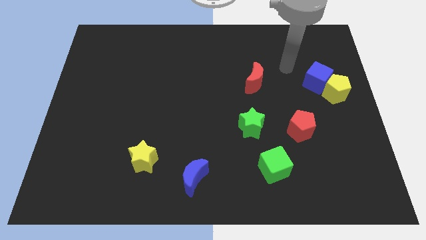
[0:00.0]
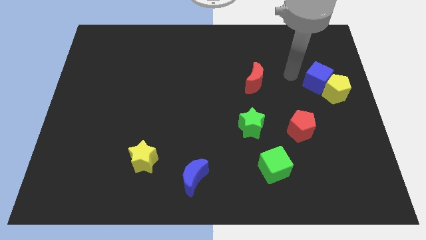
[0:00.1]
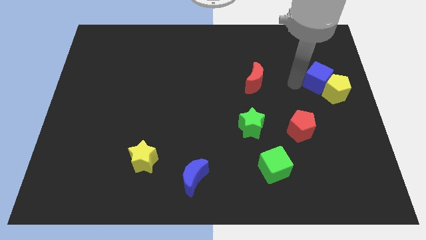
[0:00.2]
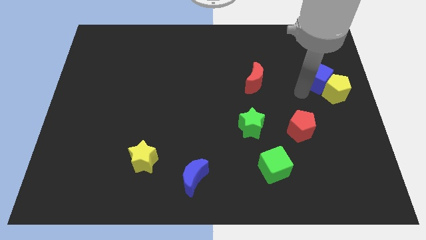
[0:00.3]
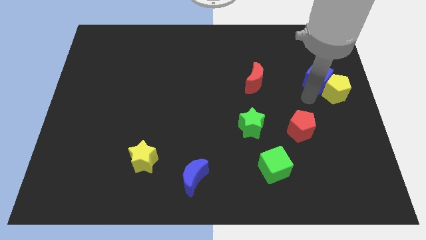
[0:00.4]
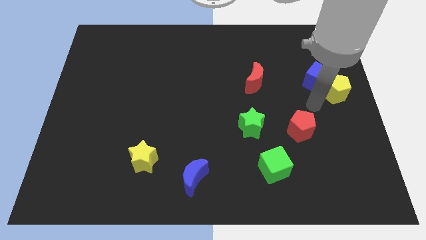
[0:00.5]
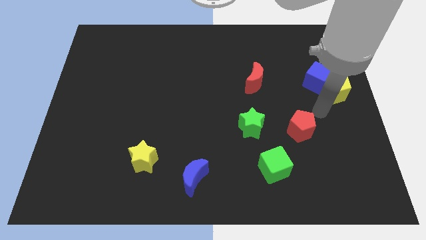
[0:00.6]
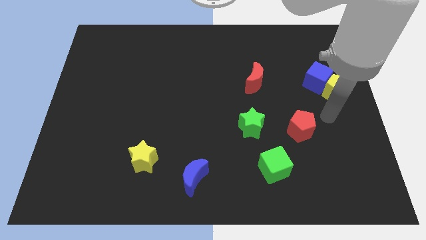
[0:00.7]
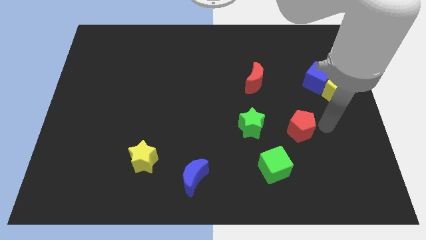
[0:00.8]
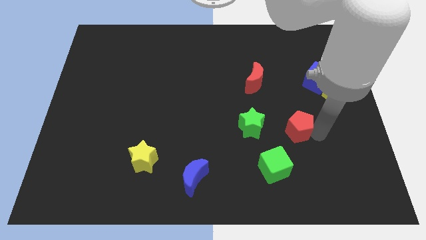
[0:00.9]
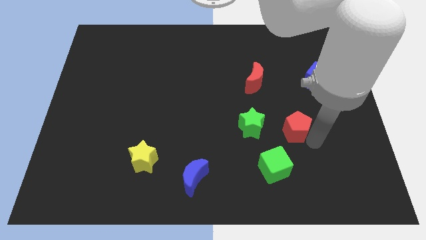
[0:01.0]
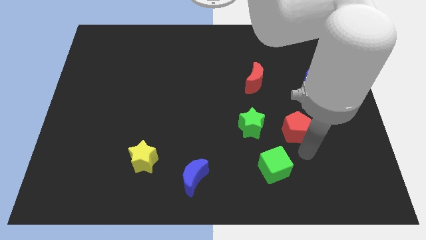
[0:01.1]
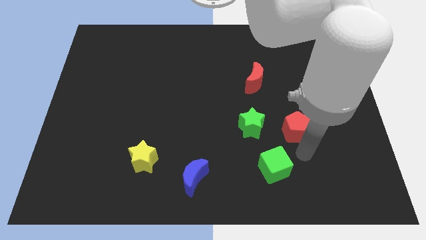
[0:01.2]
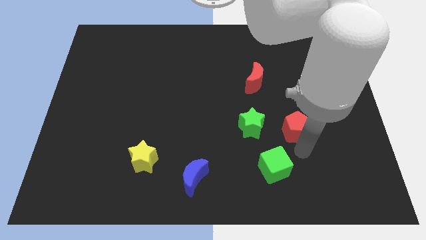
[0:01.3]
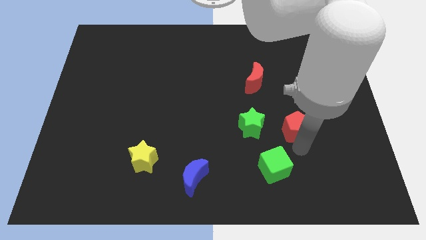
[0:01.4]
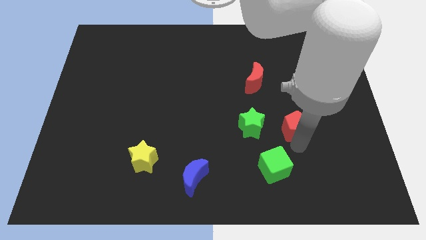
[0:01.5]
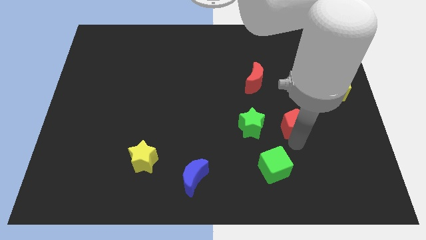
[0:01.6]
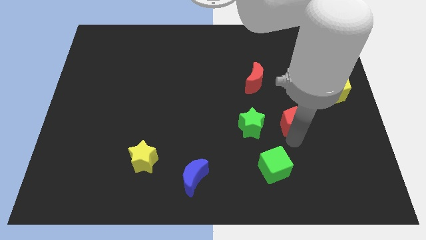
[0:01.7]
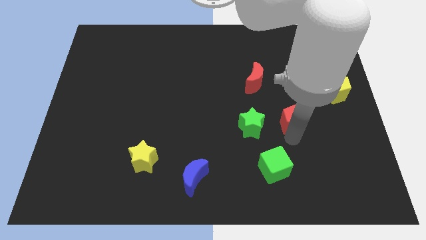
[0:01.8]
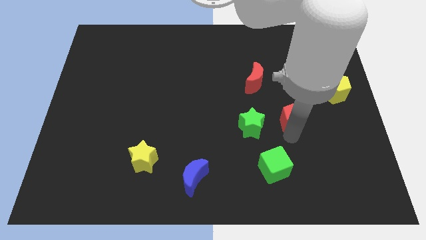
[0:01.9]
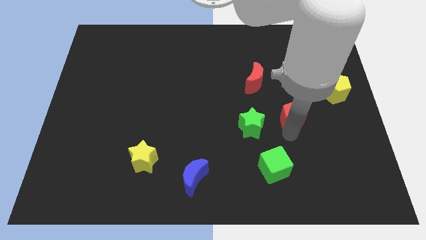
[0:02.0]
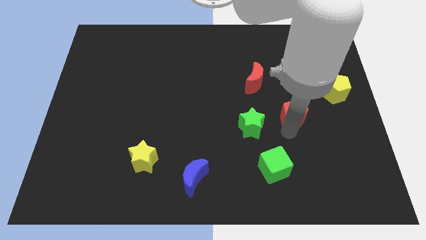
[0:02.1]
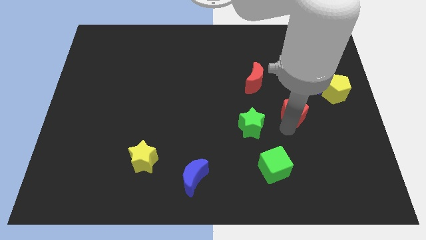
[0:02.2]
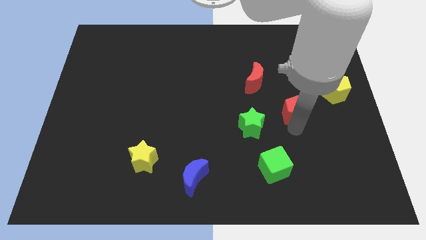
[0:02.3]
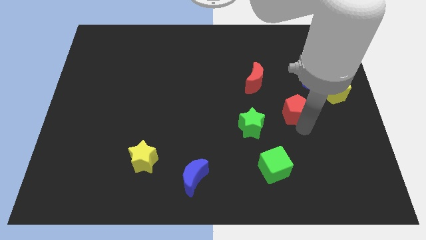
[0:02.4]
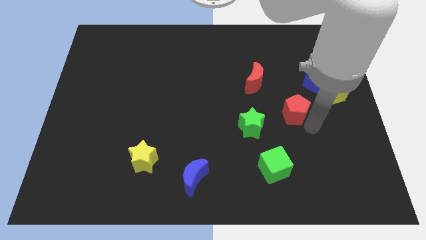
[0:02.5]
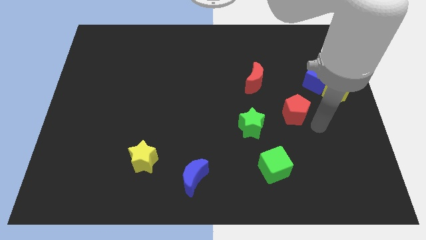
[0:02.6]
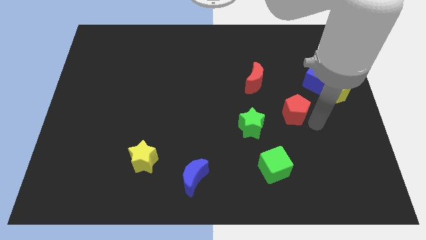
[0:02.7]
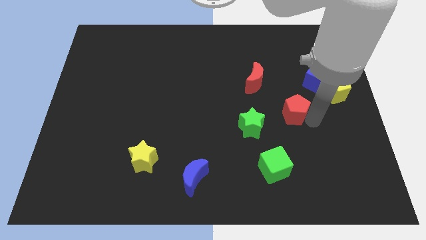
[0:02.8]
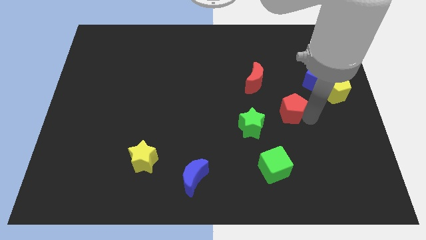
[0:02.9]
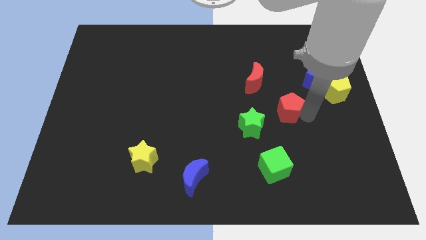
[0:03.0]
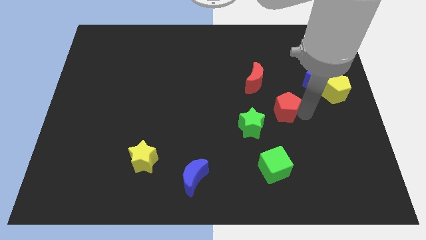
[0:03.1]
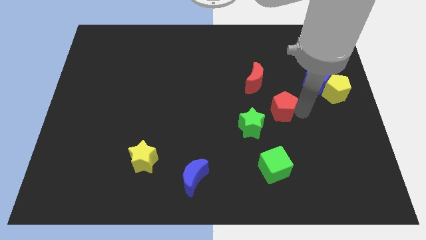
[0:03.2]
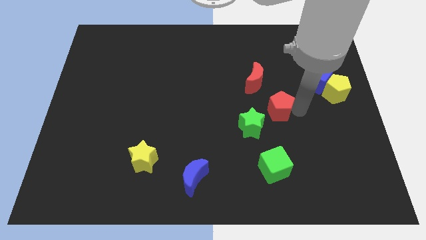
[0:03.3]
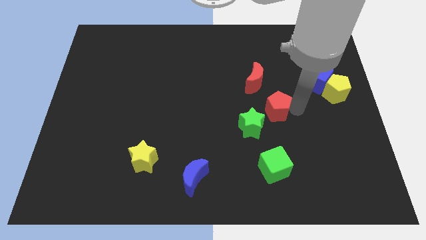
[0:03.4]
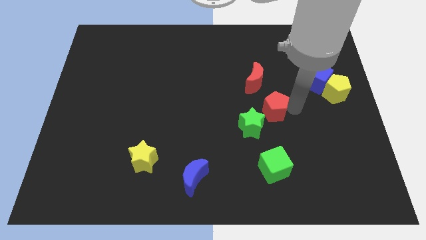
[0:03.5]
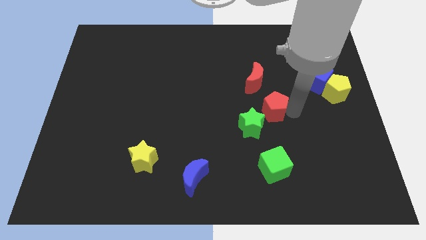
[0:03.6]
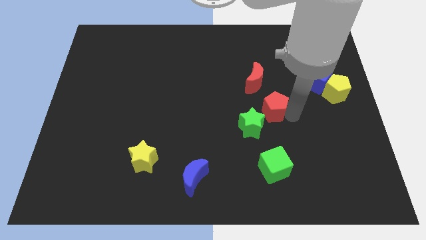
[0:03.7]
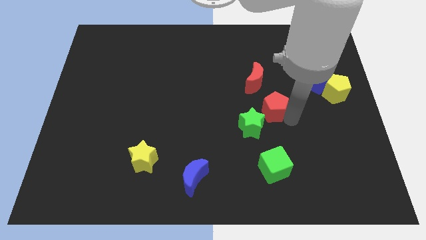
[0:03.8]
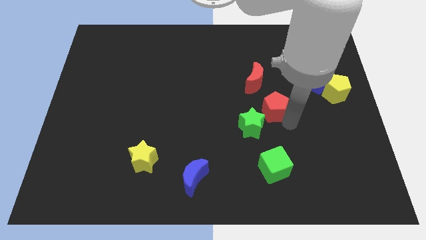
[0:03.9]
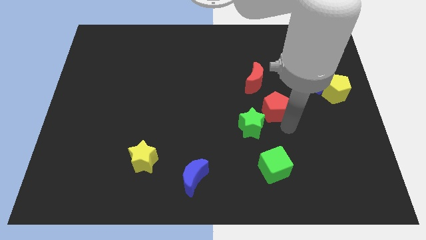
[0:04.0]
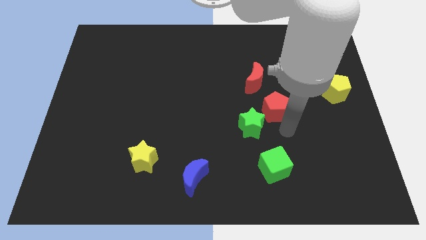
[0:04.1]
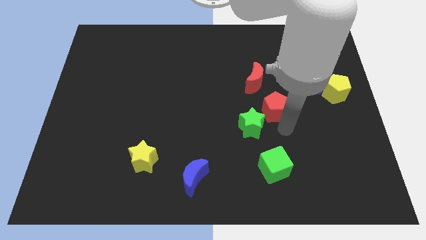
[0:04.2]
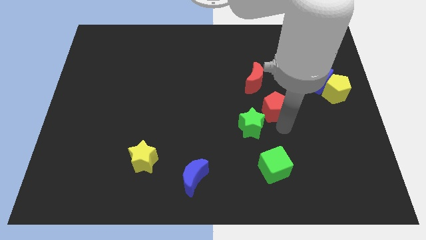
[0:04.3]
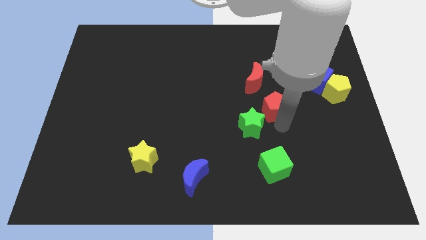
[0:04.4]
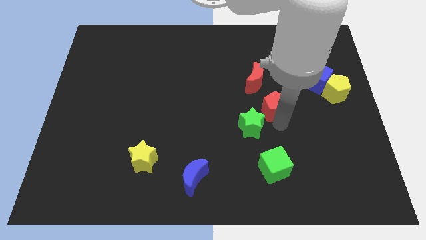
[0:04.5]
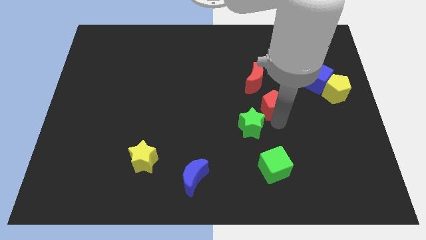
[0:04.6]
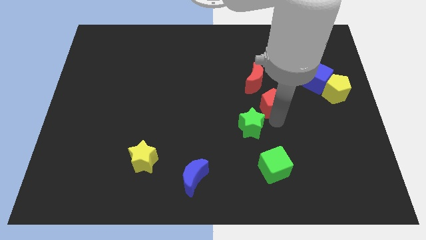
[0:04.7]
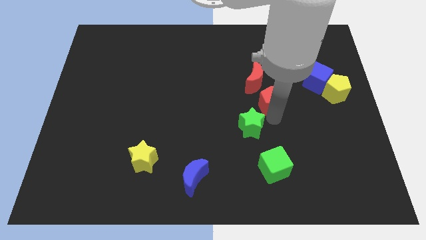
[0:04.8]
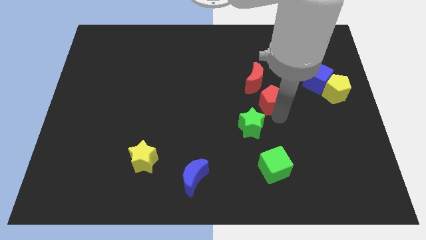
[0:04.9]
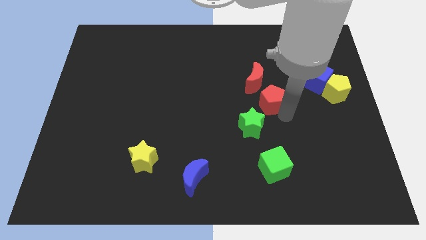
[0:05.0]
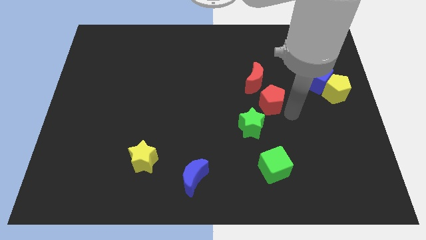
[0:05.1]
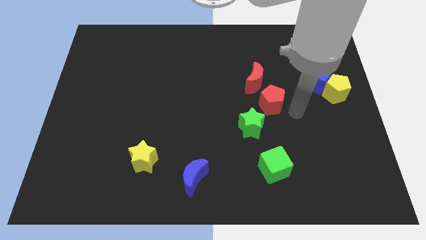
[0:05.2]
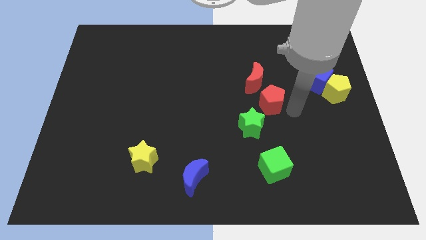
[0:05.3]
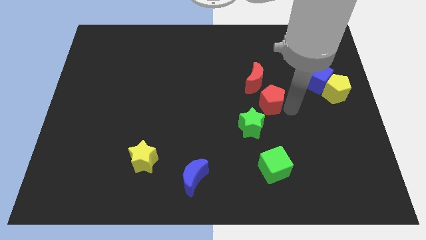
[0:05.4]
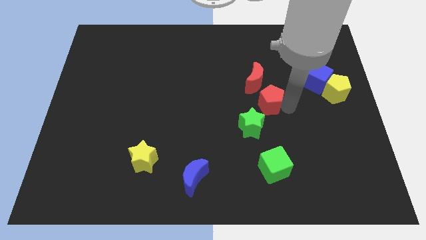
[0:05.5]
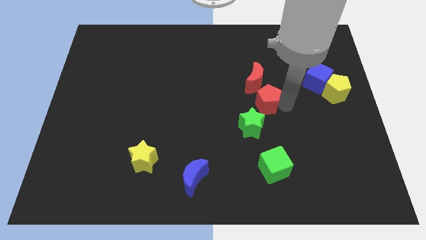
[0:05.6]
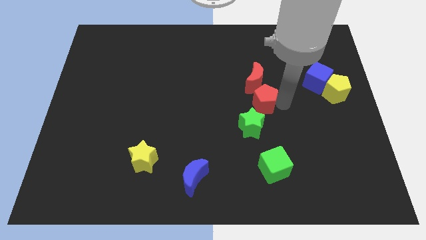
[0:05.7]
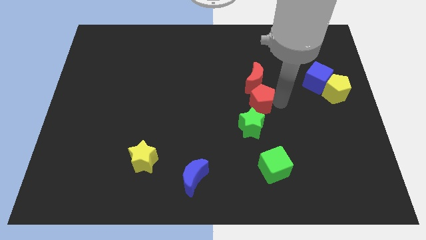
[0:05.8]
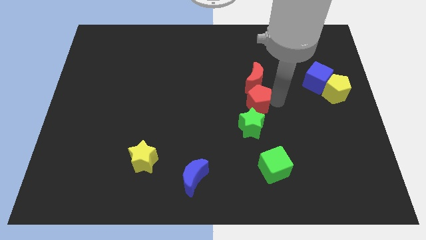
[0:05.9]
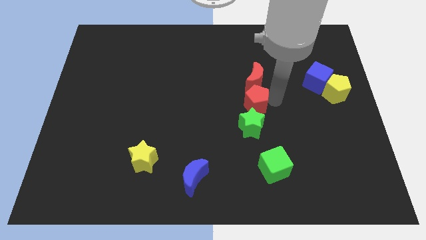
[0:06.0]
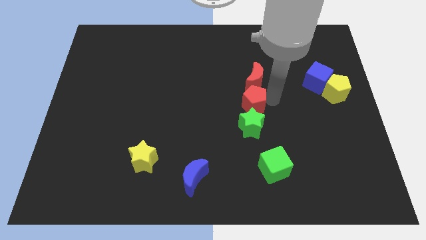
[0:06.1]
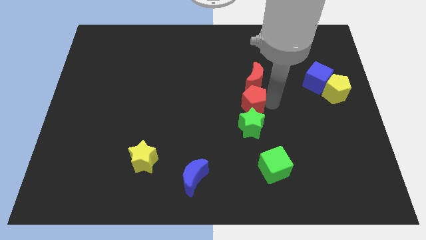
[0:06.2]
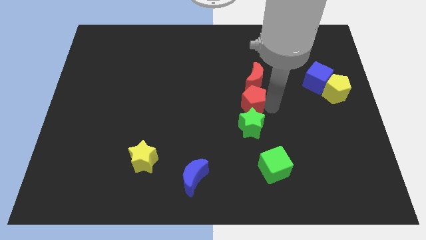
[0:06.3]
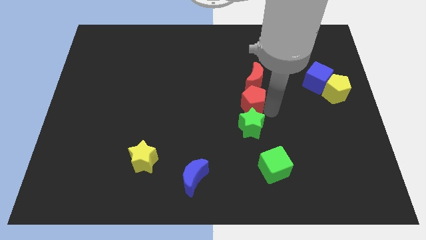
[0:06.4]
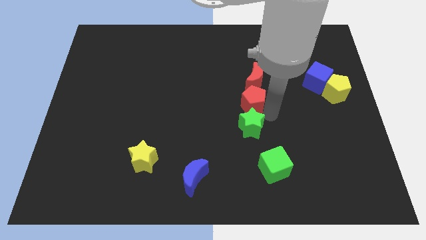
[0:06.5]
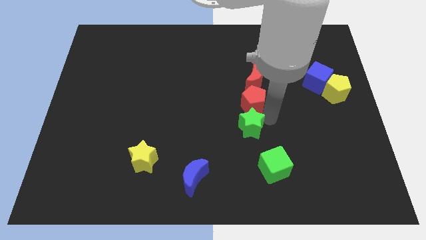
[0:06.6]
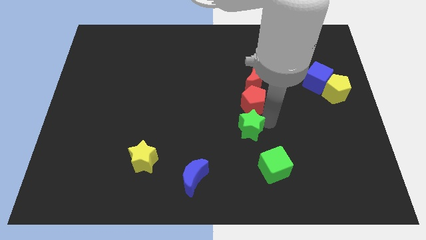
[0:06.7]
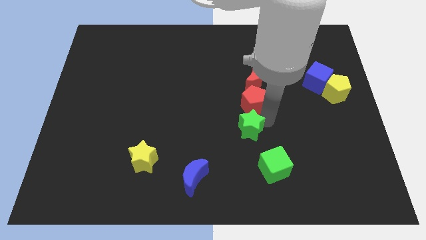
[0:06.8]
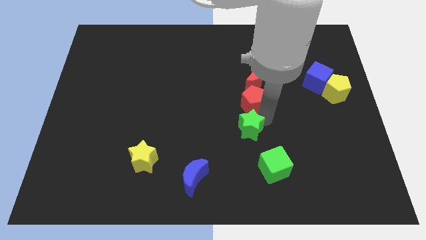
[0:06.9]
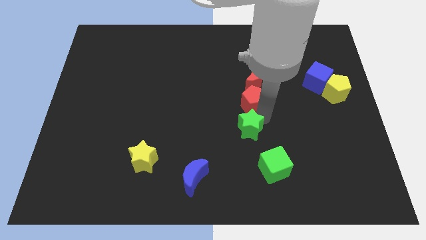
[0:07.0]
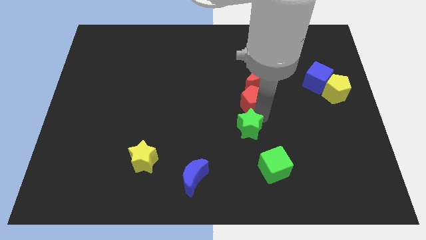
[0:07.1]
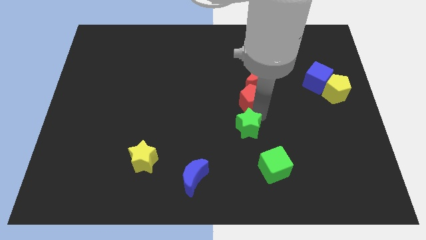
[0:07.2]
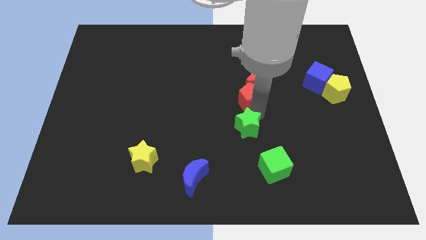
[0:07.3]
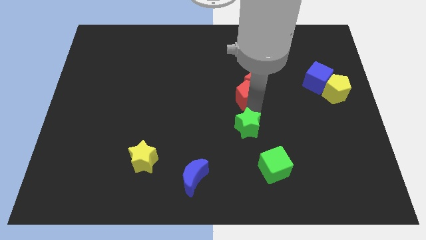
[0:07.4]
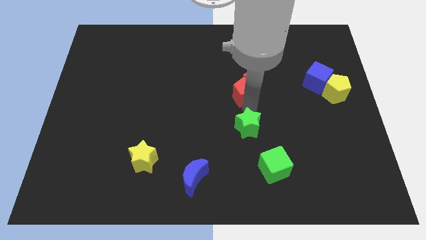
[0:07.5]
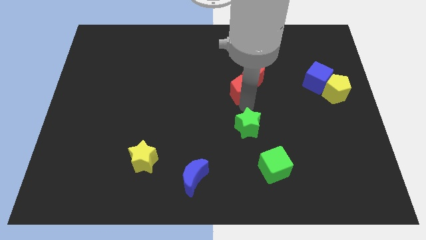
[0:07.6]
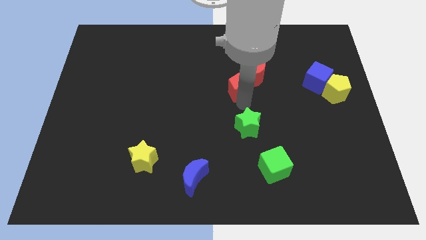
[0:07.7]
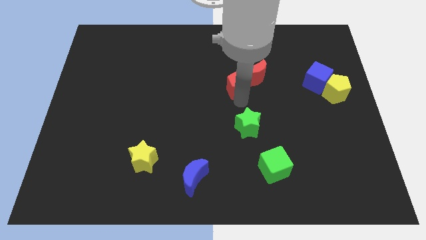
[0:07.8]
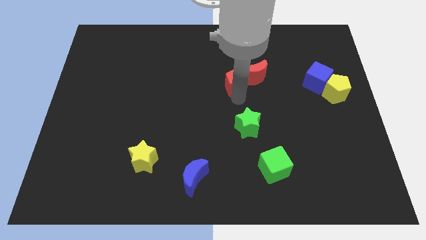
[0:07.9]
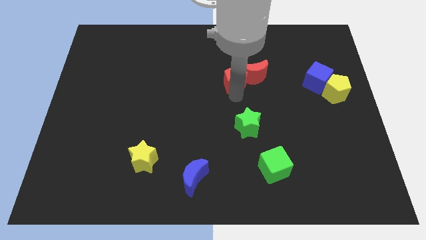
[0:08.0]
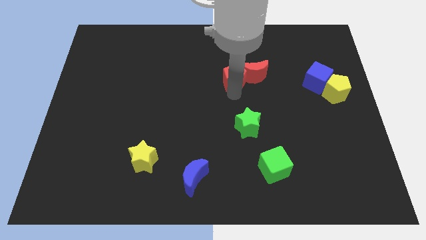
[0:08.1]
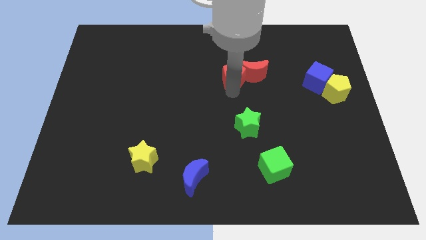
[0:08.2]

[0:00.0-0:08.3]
put the red pentagon to the top left of the red moon
